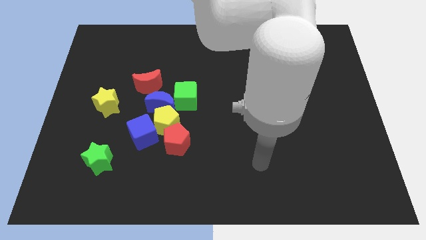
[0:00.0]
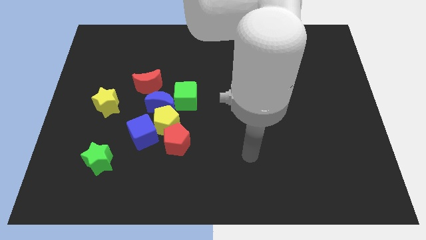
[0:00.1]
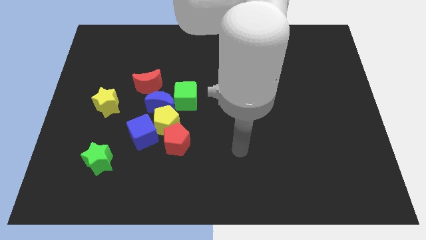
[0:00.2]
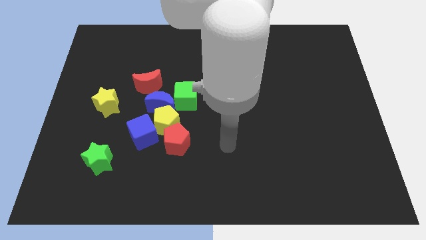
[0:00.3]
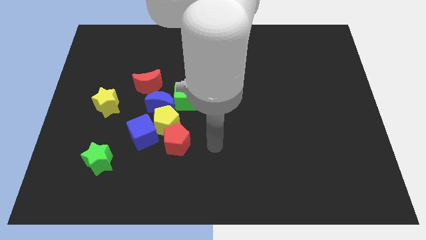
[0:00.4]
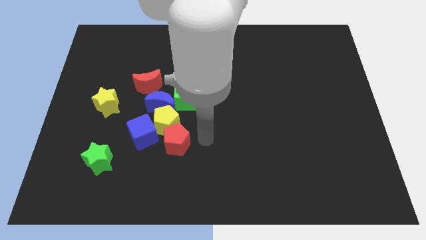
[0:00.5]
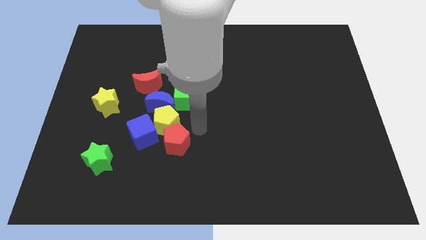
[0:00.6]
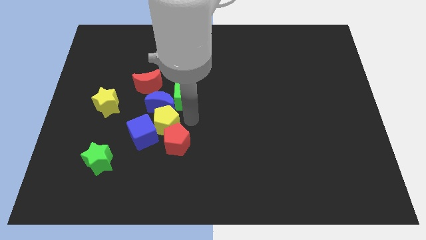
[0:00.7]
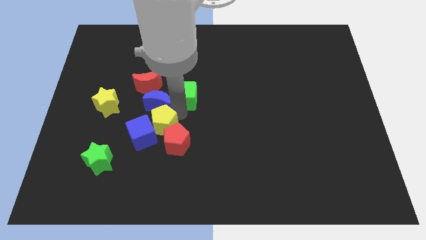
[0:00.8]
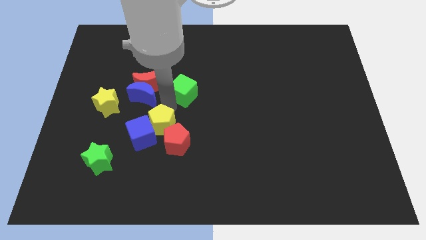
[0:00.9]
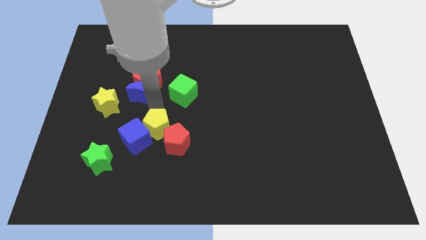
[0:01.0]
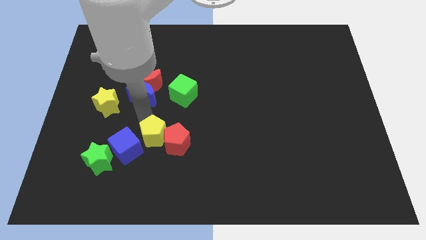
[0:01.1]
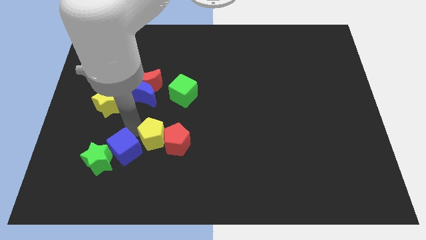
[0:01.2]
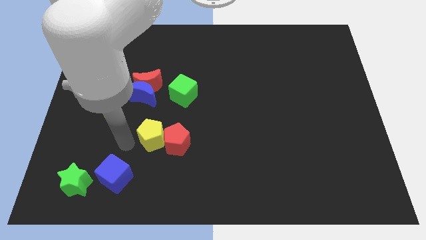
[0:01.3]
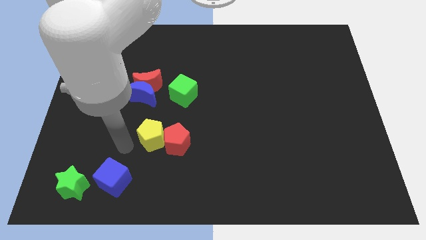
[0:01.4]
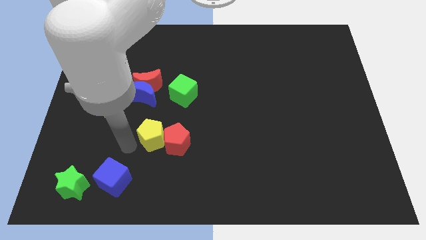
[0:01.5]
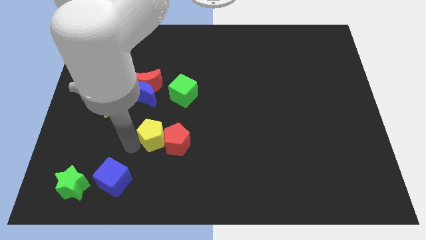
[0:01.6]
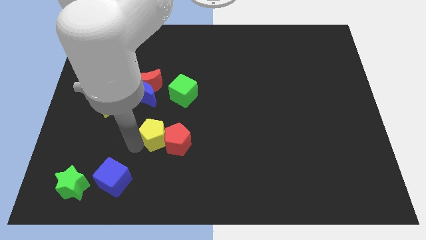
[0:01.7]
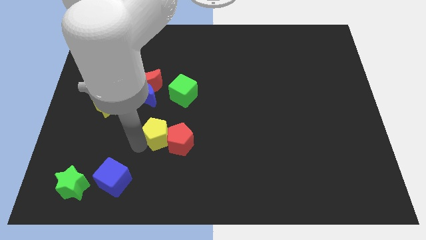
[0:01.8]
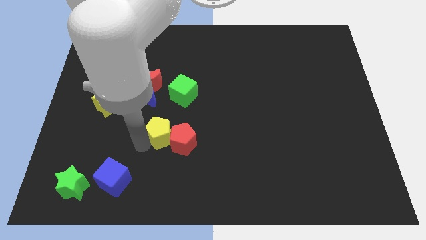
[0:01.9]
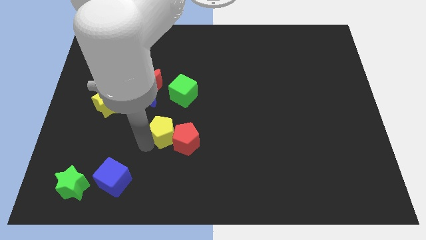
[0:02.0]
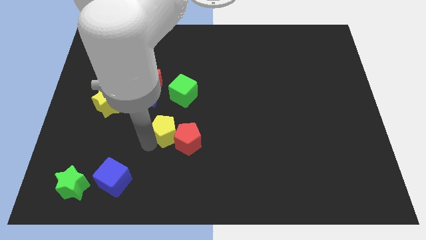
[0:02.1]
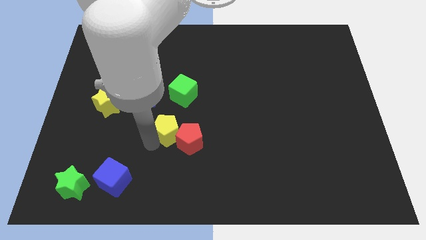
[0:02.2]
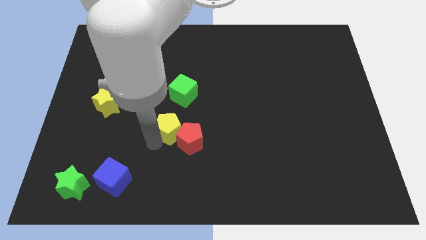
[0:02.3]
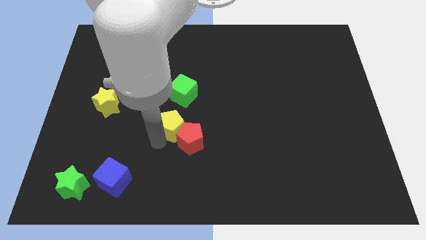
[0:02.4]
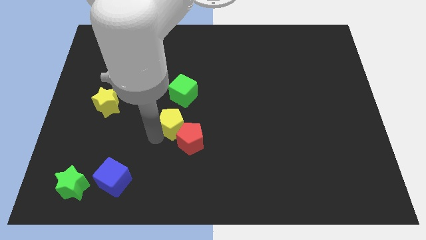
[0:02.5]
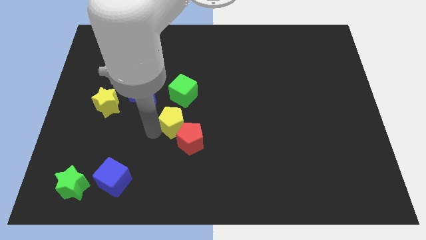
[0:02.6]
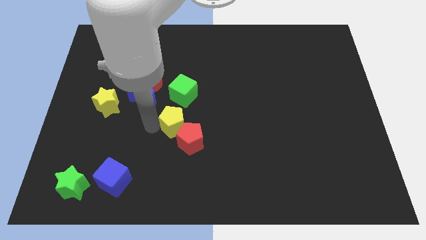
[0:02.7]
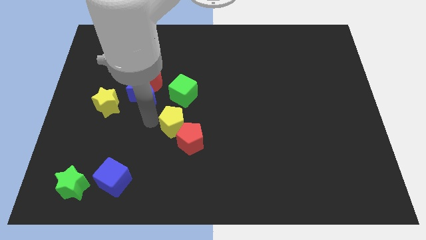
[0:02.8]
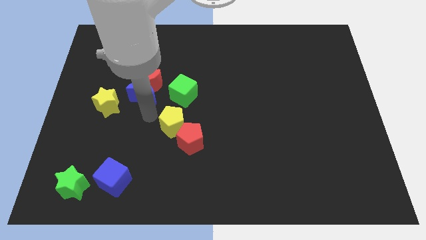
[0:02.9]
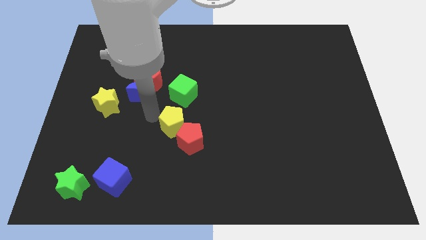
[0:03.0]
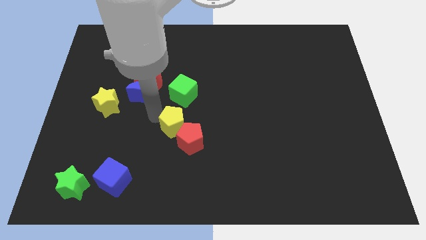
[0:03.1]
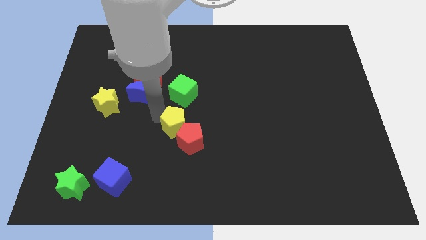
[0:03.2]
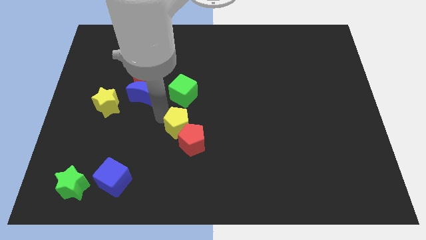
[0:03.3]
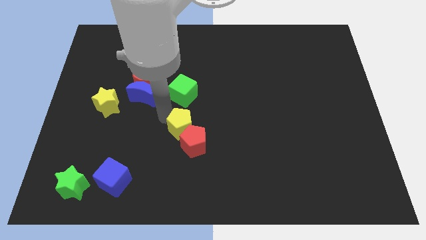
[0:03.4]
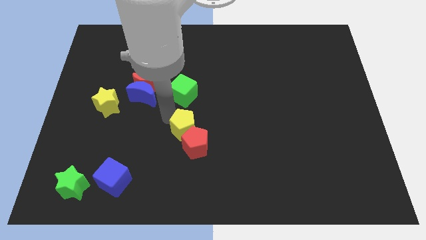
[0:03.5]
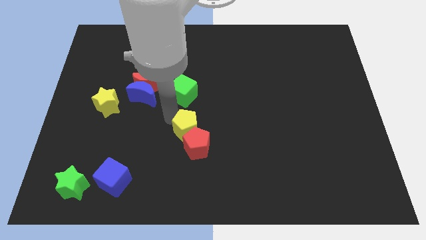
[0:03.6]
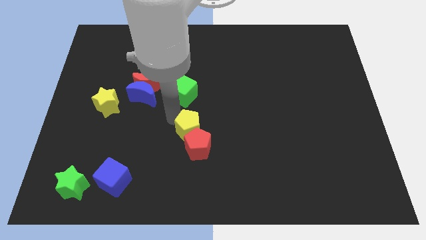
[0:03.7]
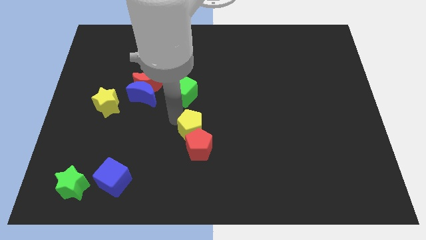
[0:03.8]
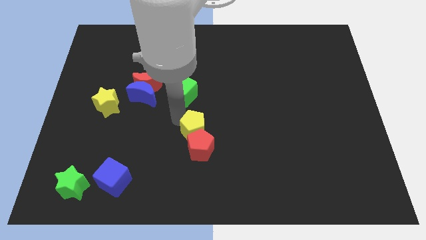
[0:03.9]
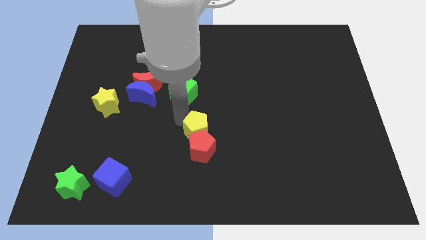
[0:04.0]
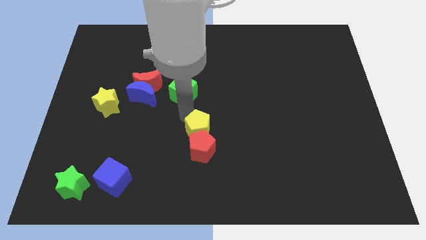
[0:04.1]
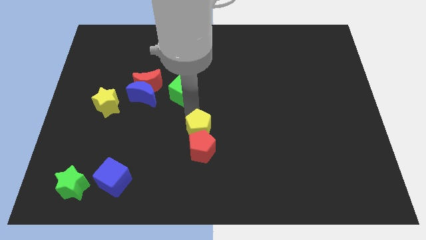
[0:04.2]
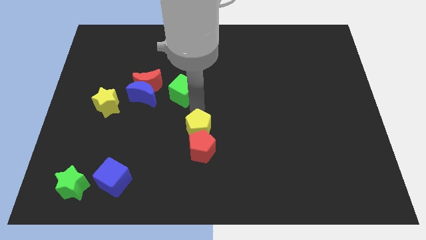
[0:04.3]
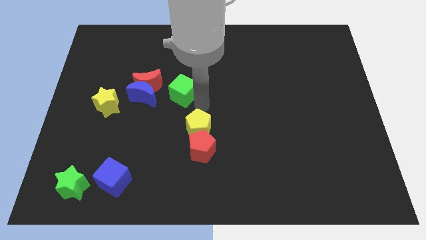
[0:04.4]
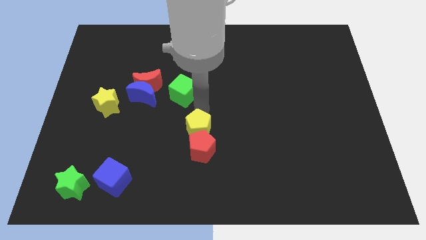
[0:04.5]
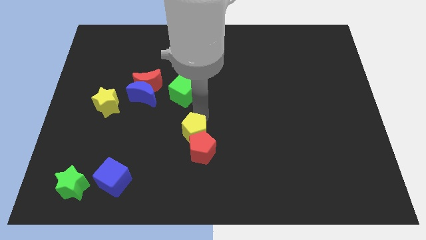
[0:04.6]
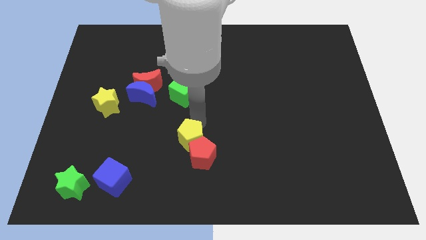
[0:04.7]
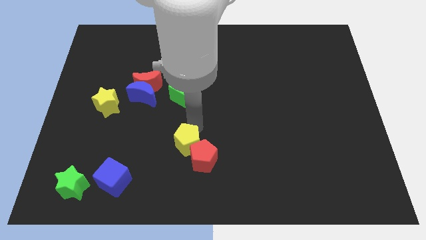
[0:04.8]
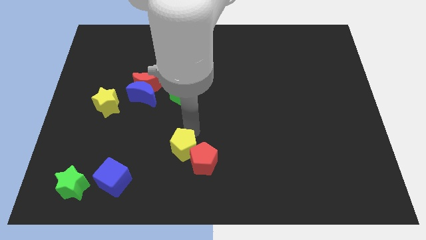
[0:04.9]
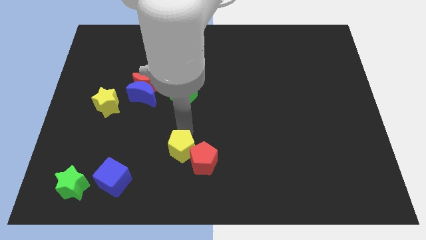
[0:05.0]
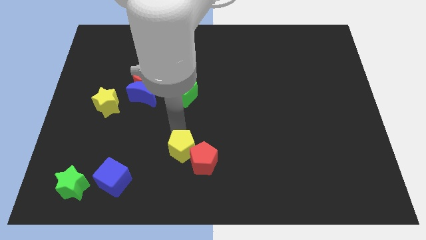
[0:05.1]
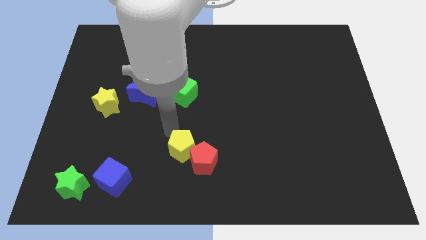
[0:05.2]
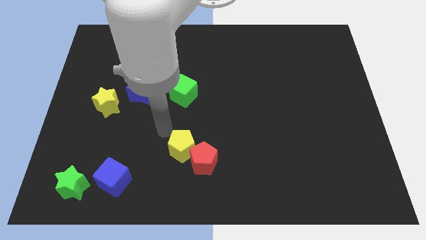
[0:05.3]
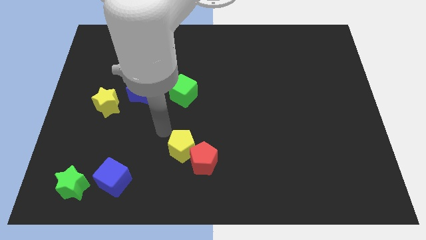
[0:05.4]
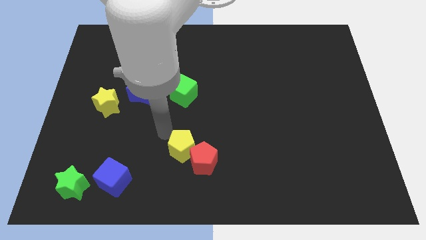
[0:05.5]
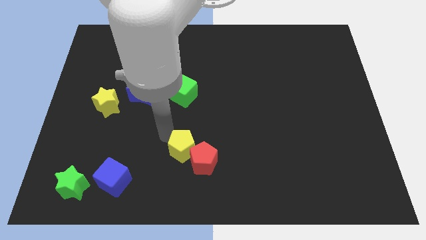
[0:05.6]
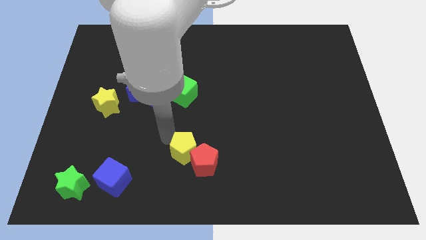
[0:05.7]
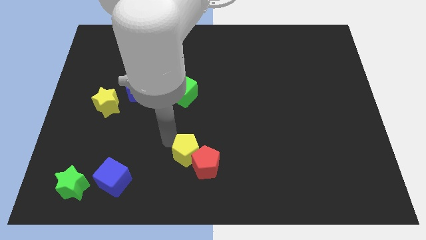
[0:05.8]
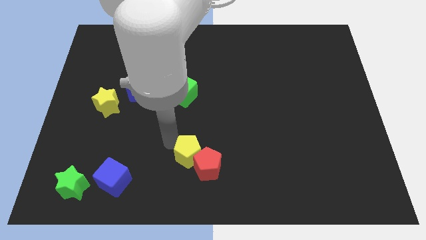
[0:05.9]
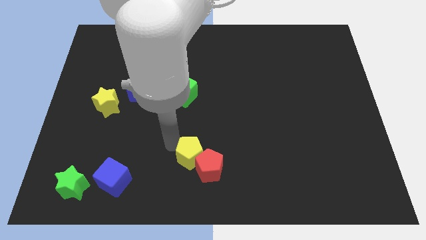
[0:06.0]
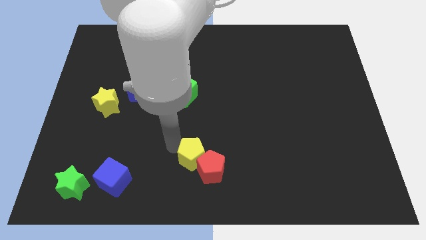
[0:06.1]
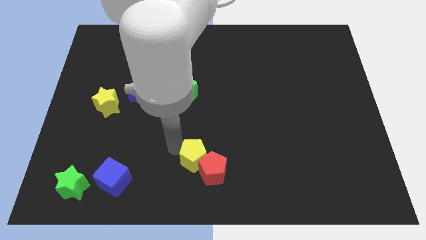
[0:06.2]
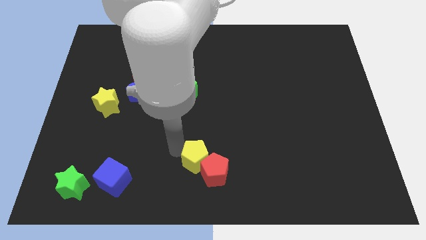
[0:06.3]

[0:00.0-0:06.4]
move the yellow pentagon away from the group

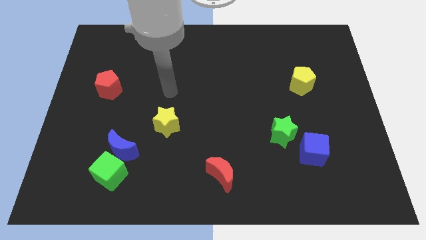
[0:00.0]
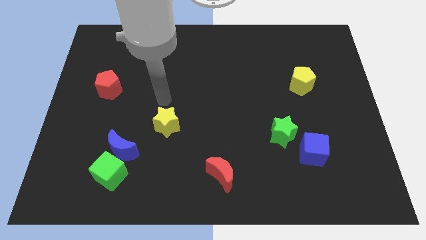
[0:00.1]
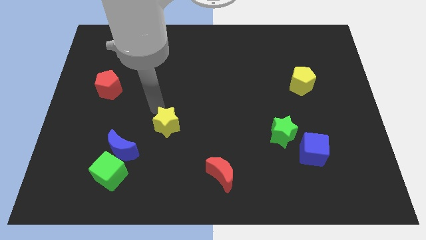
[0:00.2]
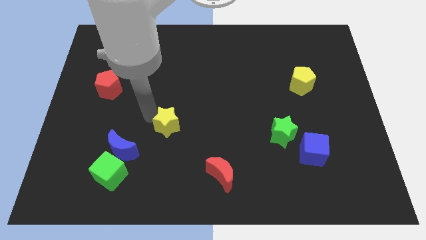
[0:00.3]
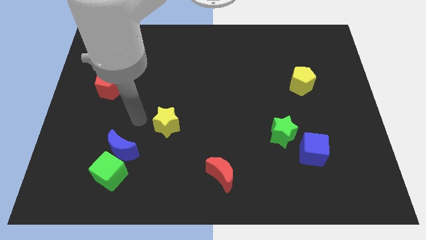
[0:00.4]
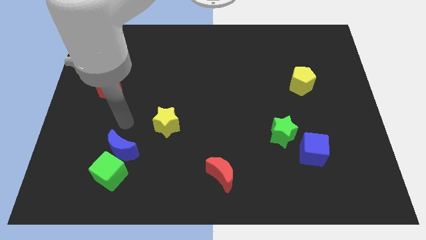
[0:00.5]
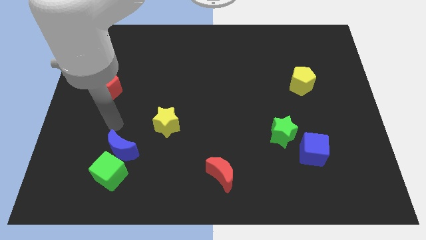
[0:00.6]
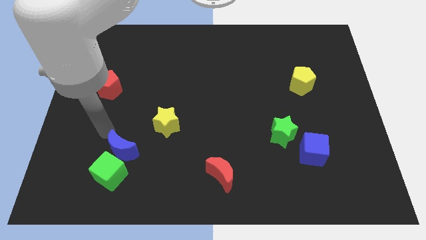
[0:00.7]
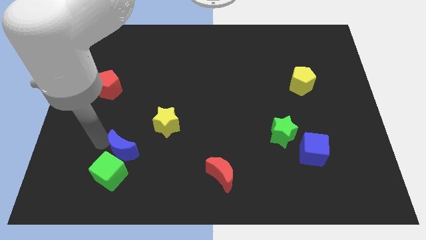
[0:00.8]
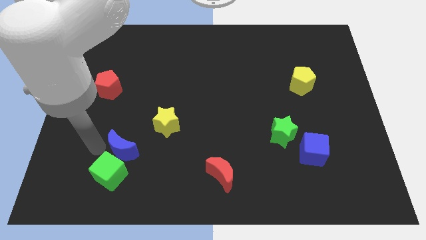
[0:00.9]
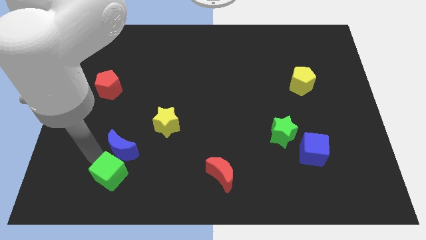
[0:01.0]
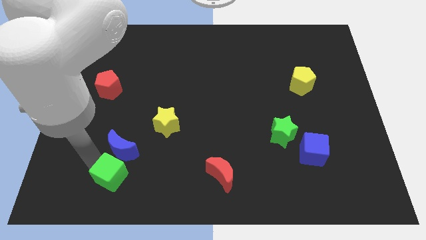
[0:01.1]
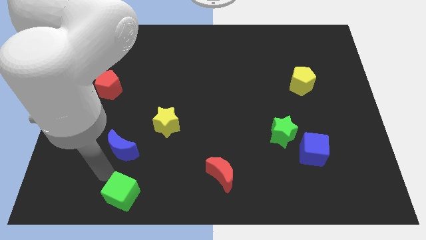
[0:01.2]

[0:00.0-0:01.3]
separate the blue moon from the green cube

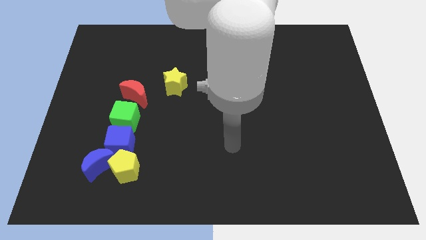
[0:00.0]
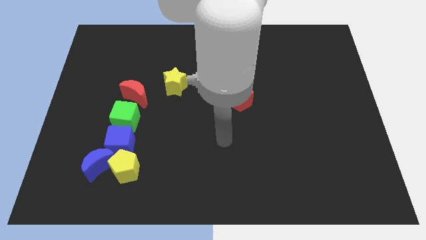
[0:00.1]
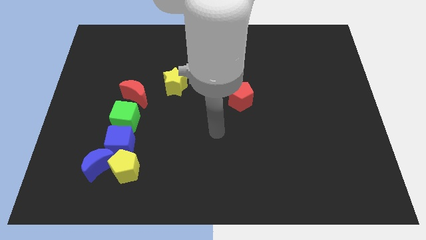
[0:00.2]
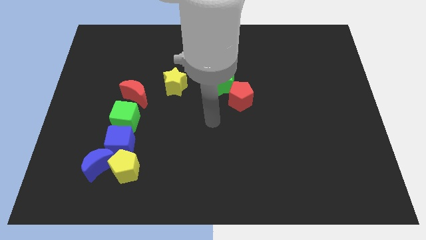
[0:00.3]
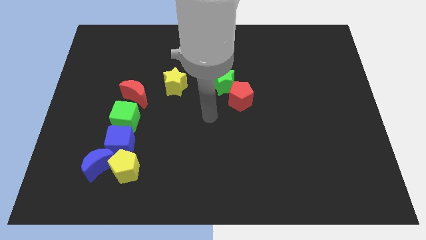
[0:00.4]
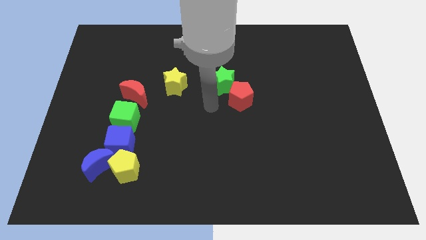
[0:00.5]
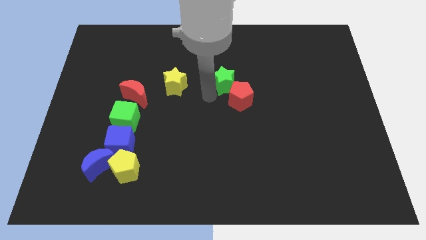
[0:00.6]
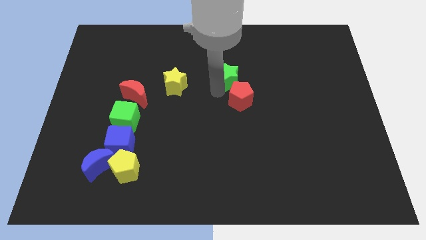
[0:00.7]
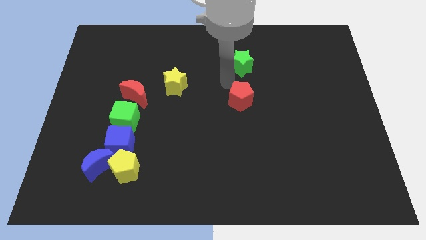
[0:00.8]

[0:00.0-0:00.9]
separate the red pentagon from the green star

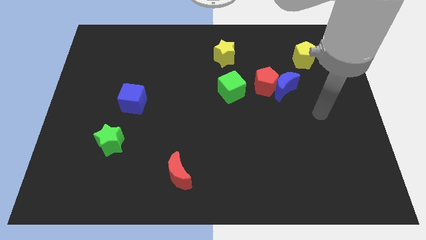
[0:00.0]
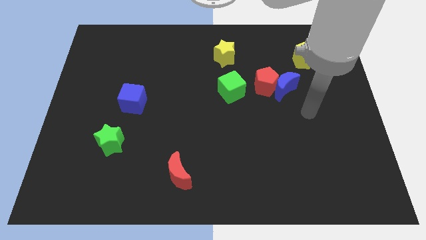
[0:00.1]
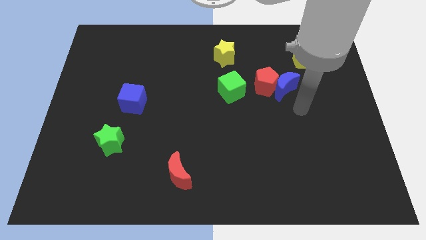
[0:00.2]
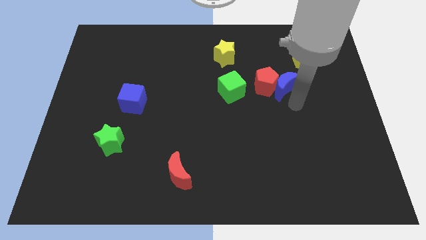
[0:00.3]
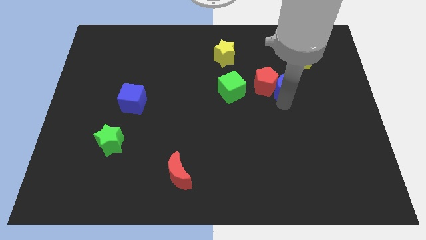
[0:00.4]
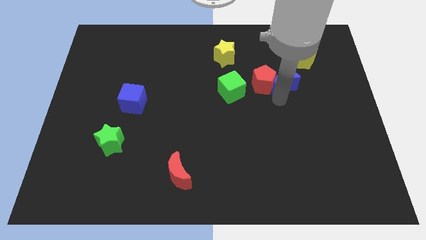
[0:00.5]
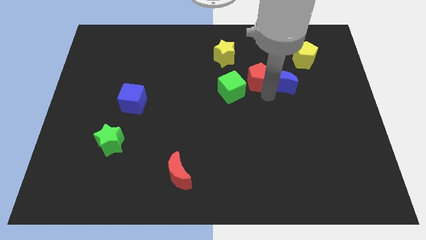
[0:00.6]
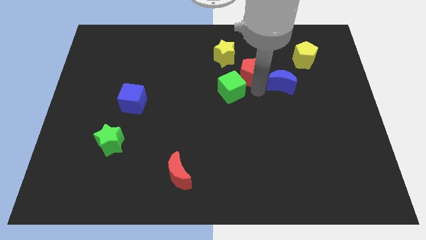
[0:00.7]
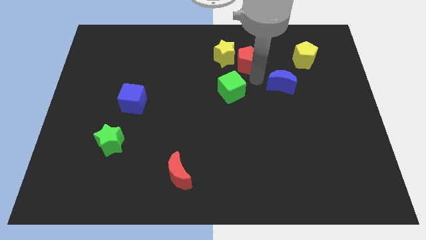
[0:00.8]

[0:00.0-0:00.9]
separate the blue moon from the red pentagon

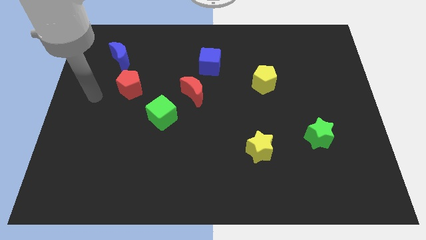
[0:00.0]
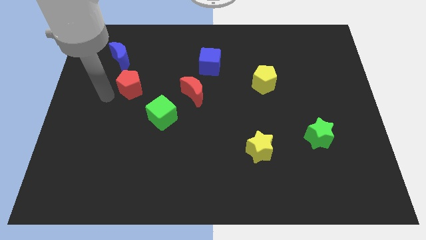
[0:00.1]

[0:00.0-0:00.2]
pull the green cube apart from the red moon
